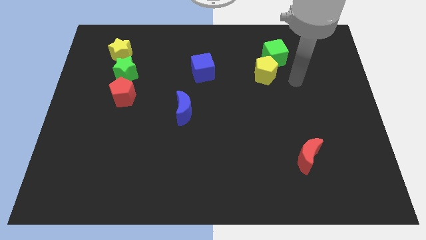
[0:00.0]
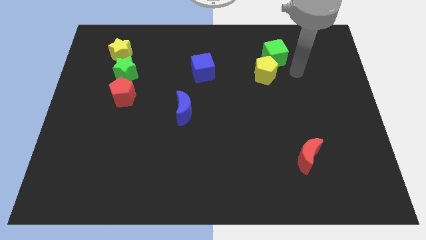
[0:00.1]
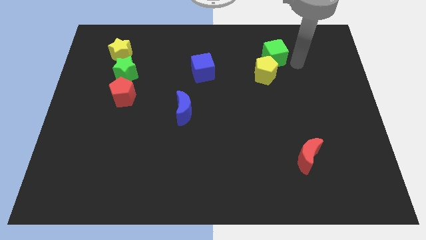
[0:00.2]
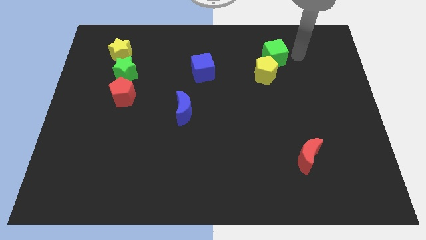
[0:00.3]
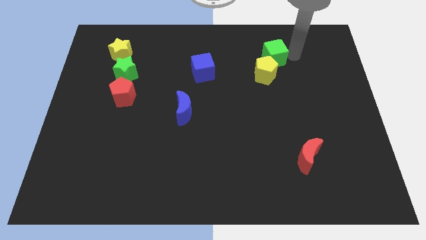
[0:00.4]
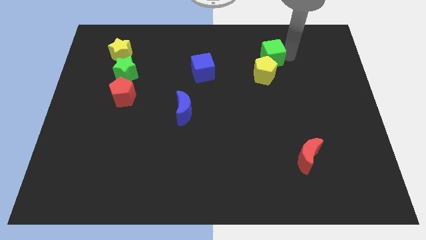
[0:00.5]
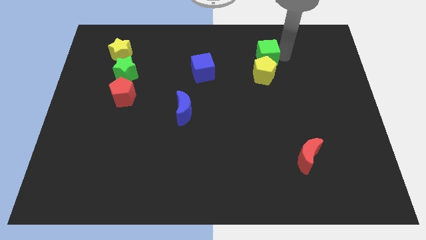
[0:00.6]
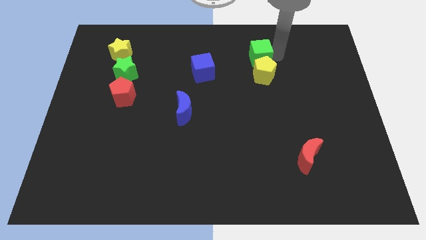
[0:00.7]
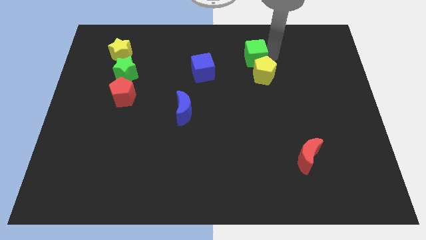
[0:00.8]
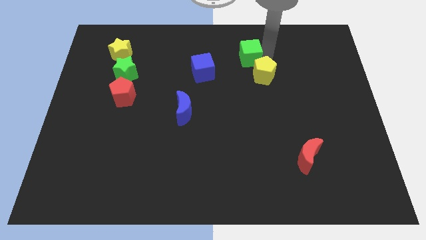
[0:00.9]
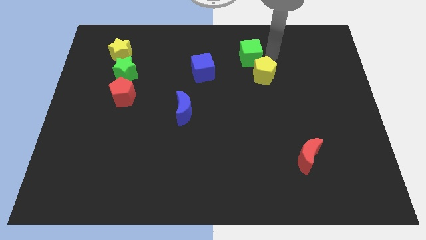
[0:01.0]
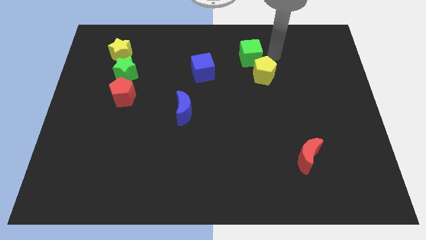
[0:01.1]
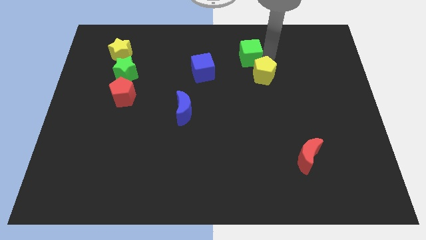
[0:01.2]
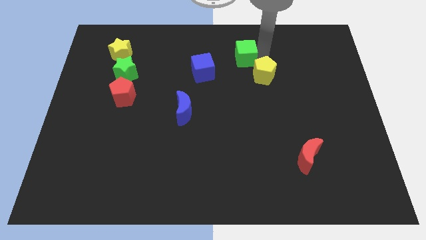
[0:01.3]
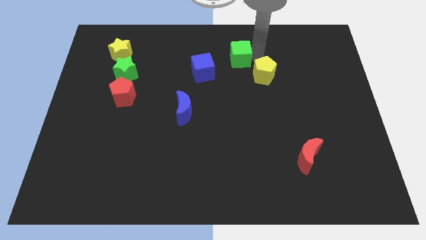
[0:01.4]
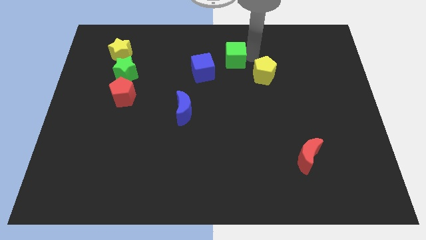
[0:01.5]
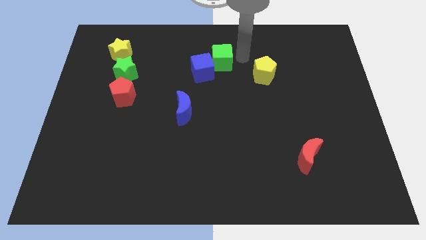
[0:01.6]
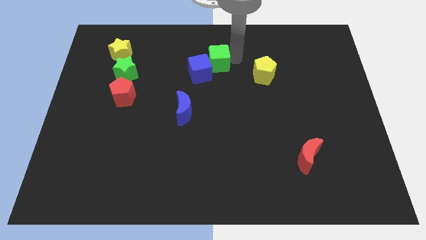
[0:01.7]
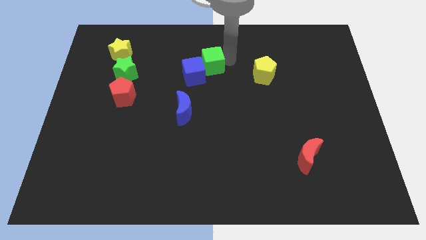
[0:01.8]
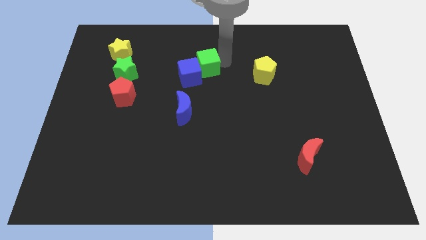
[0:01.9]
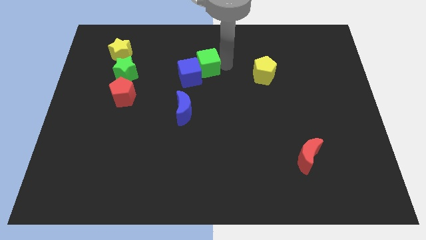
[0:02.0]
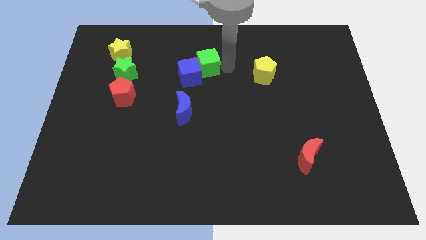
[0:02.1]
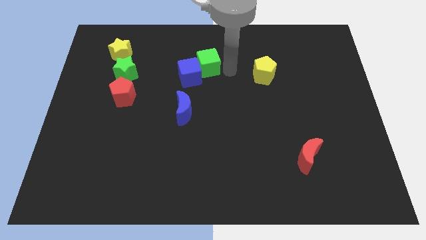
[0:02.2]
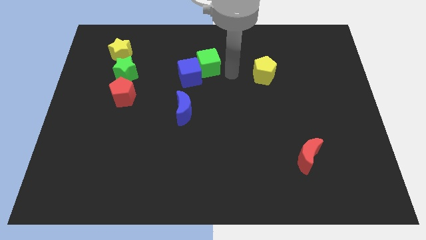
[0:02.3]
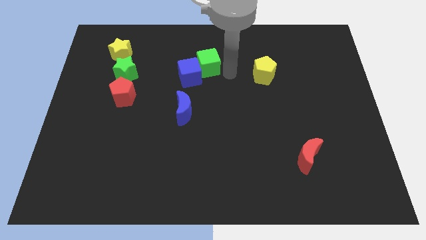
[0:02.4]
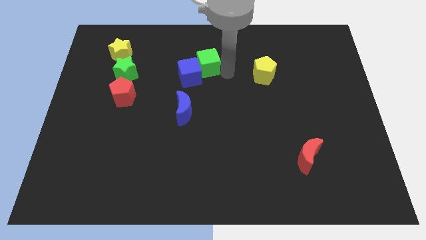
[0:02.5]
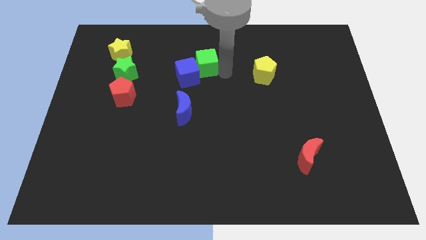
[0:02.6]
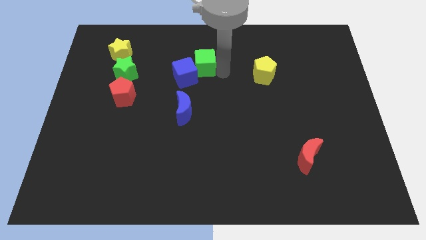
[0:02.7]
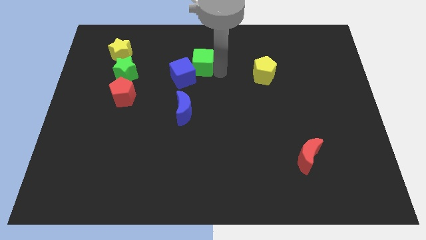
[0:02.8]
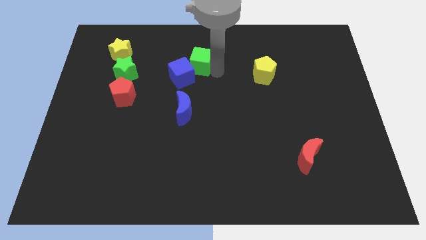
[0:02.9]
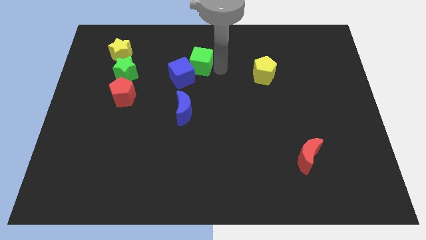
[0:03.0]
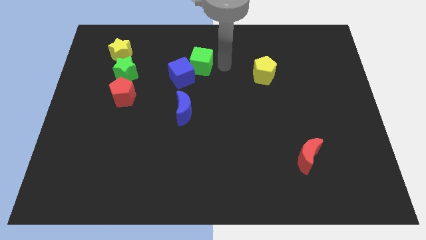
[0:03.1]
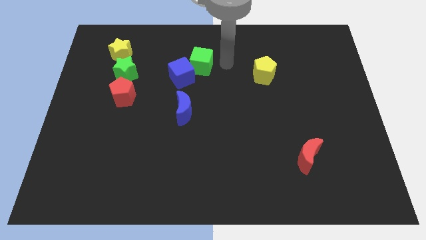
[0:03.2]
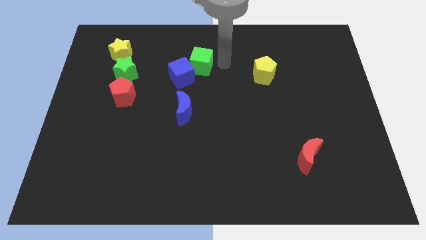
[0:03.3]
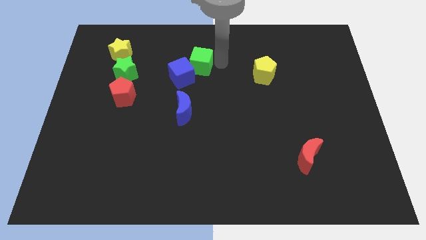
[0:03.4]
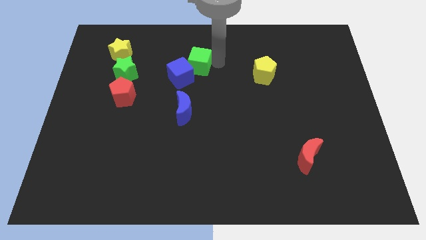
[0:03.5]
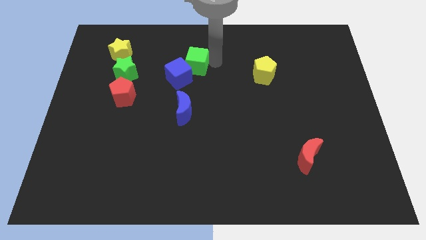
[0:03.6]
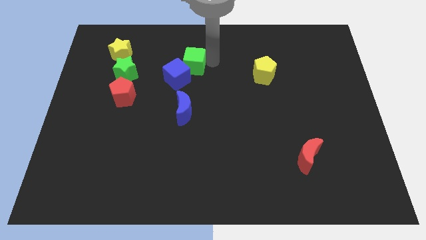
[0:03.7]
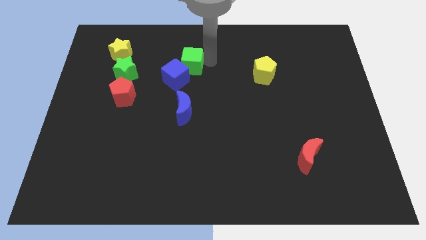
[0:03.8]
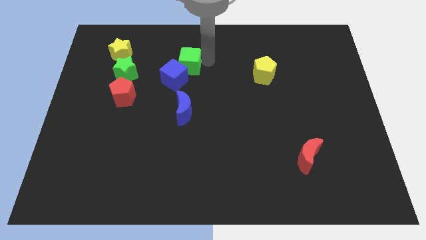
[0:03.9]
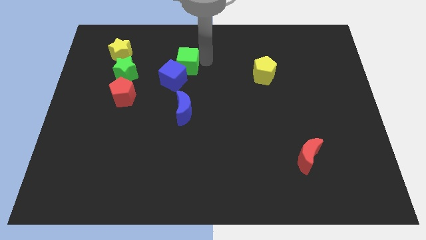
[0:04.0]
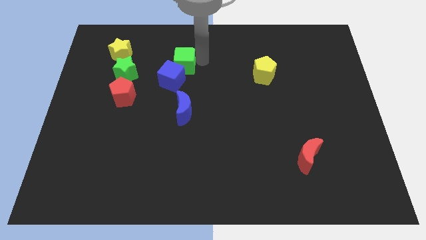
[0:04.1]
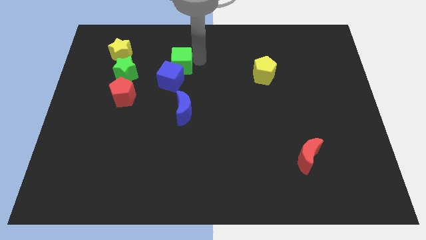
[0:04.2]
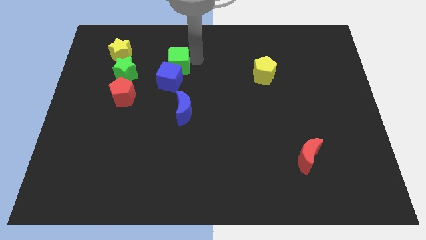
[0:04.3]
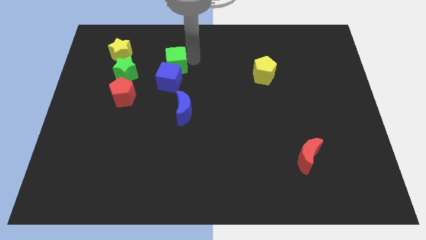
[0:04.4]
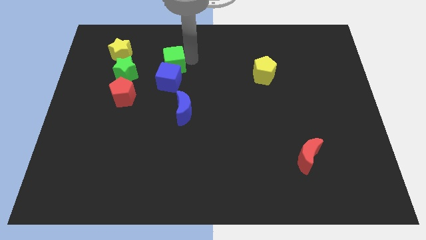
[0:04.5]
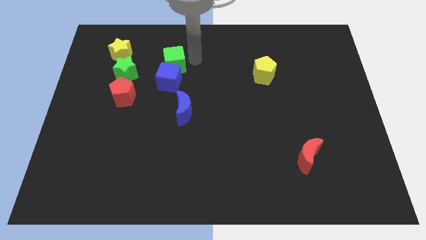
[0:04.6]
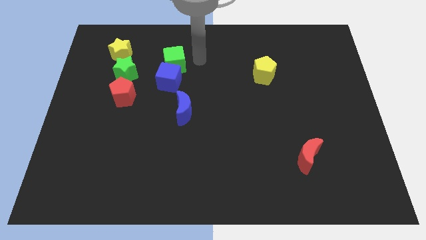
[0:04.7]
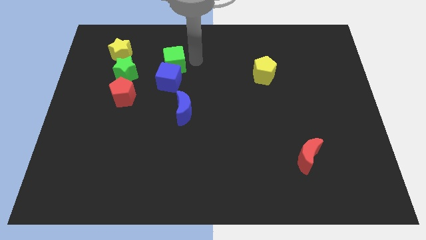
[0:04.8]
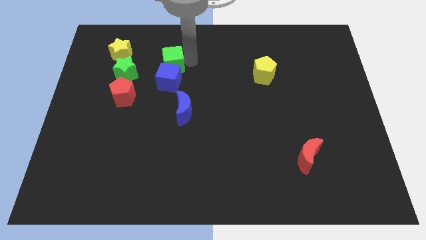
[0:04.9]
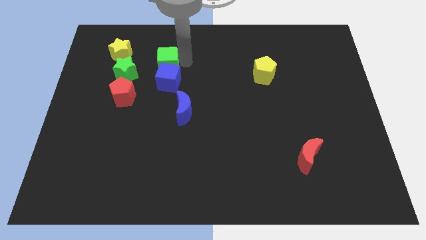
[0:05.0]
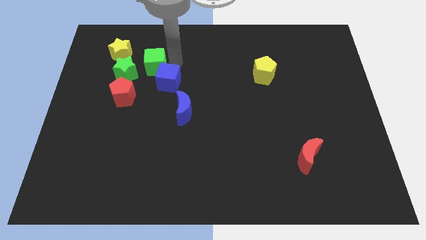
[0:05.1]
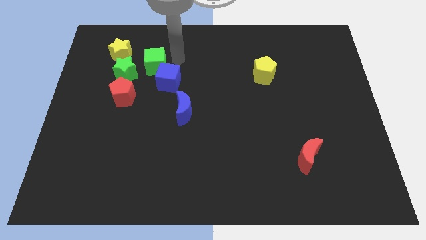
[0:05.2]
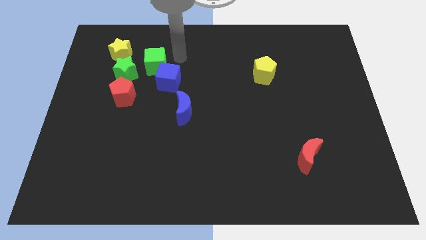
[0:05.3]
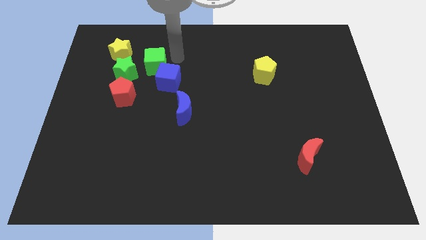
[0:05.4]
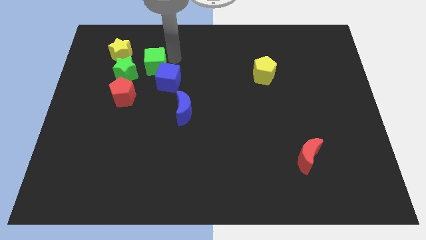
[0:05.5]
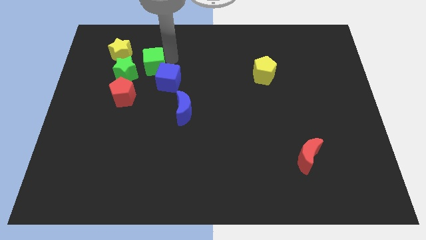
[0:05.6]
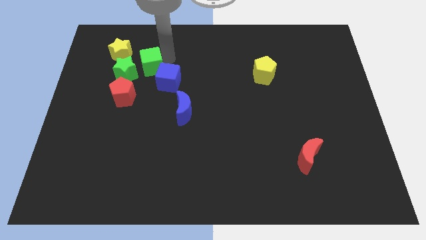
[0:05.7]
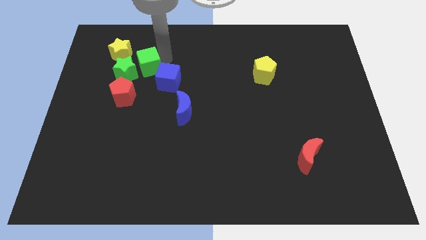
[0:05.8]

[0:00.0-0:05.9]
push the green cube close to the green star

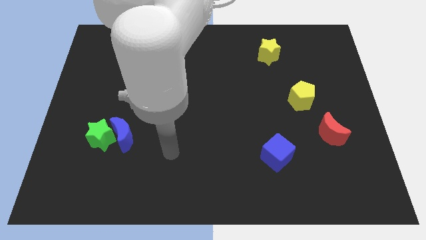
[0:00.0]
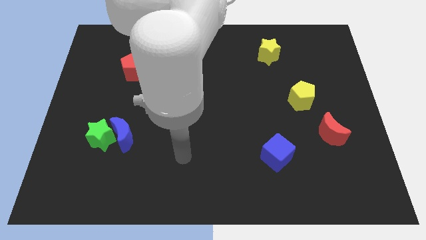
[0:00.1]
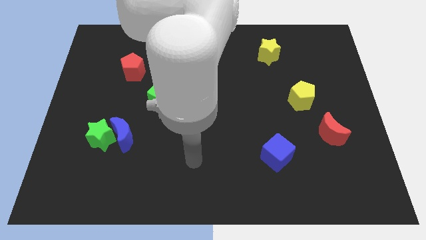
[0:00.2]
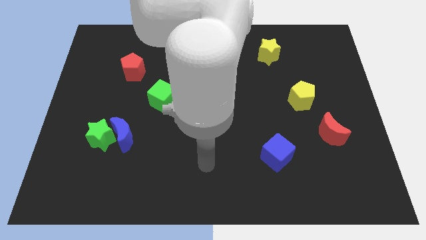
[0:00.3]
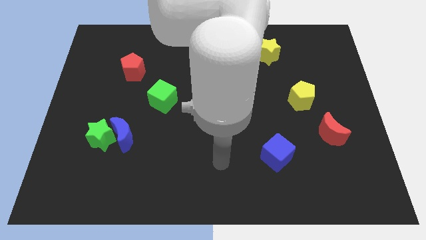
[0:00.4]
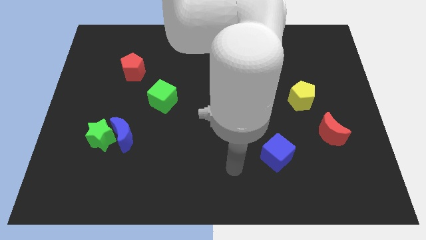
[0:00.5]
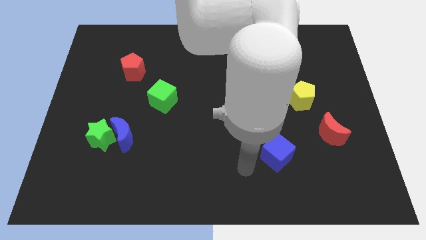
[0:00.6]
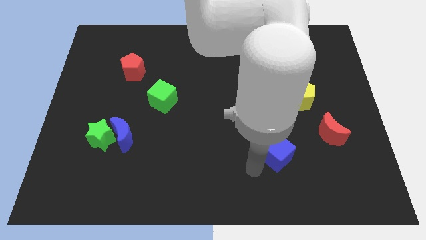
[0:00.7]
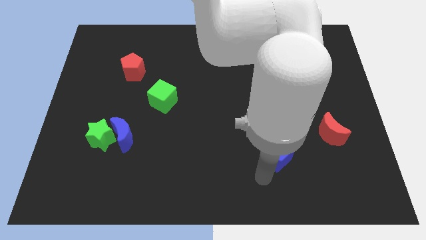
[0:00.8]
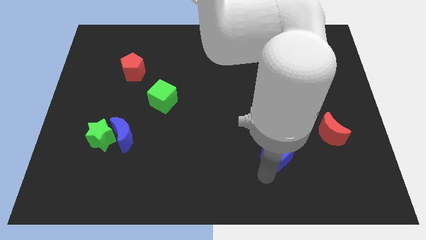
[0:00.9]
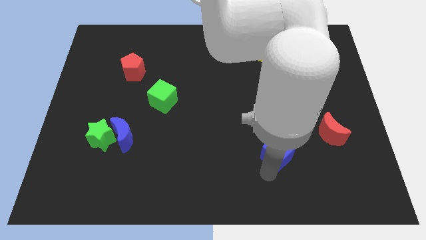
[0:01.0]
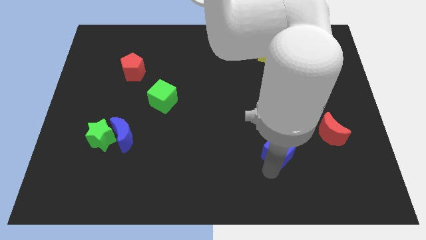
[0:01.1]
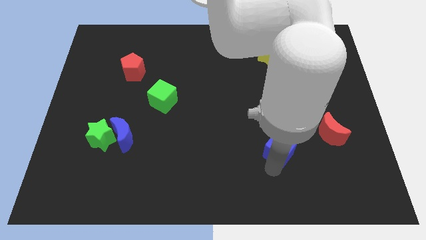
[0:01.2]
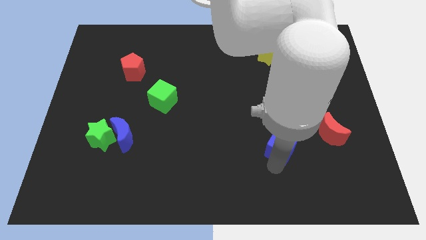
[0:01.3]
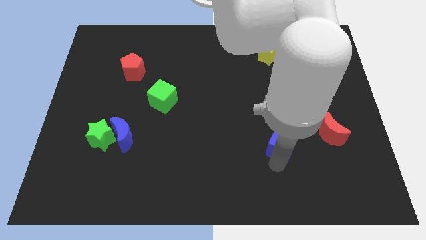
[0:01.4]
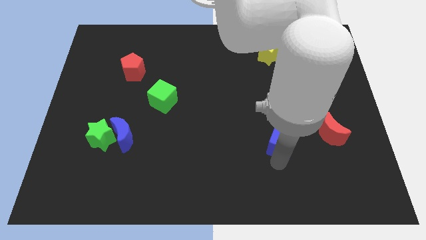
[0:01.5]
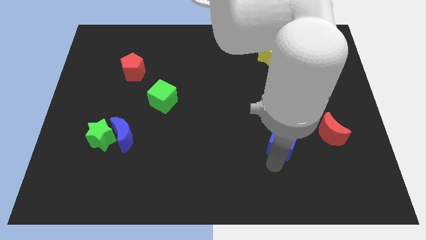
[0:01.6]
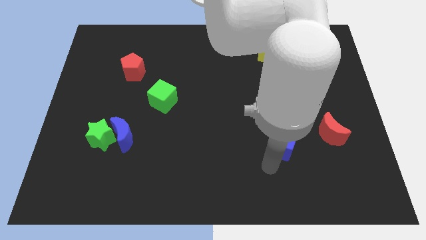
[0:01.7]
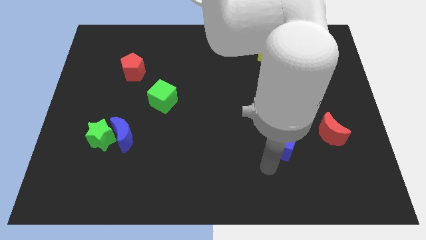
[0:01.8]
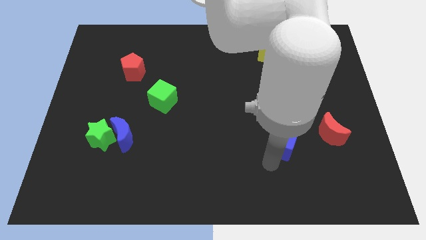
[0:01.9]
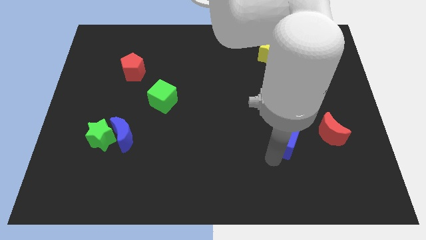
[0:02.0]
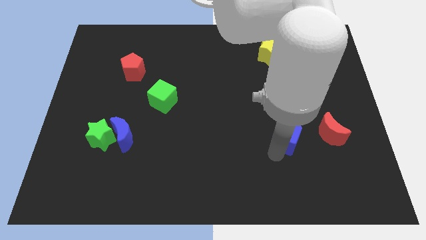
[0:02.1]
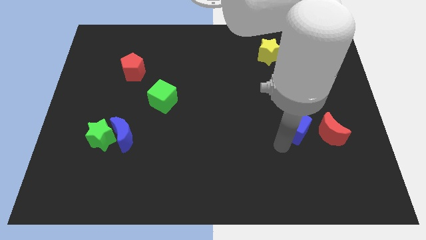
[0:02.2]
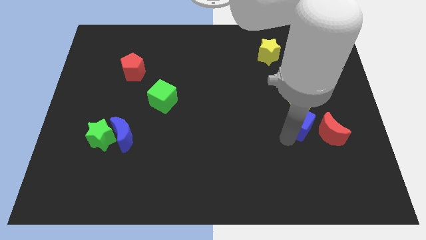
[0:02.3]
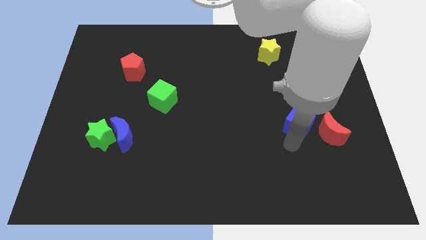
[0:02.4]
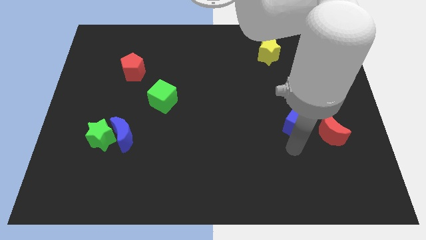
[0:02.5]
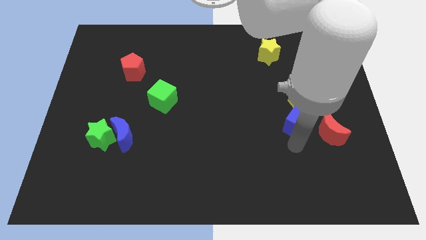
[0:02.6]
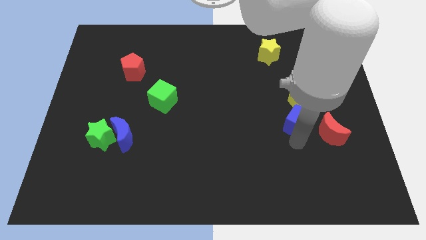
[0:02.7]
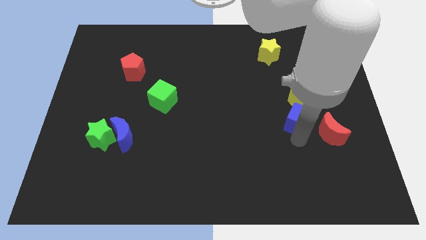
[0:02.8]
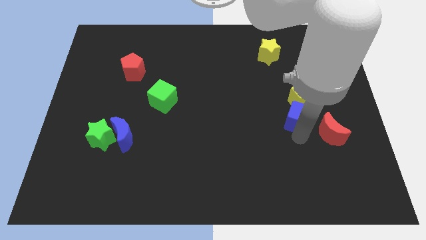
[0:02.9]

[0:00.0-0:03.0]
slide the blue cube next to the yellow pentagon
